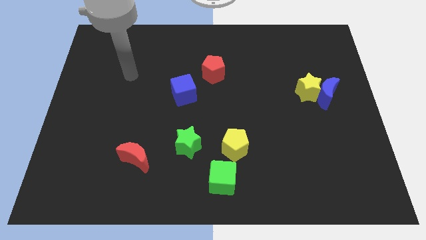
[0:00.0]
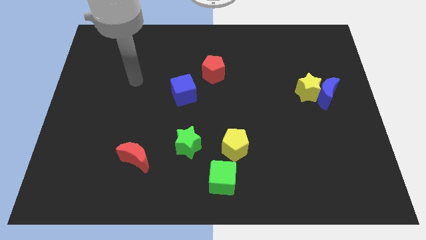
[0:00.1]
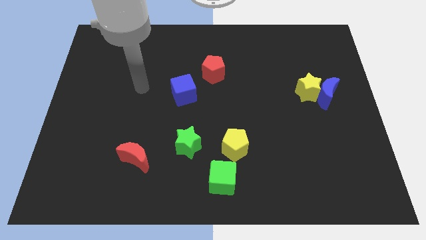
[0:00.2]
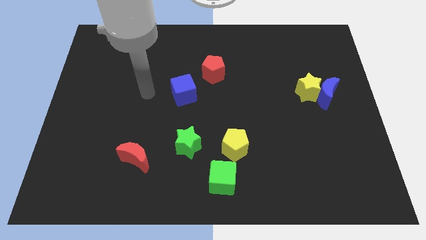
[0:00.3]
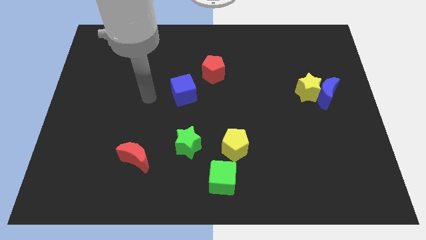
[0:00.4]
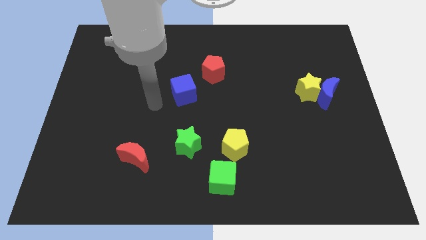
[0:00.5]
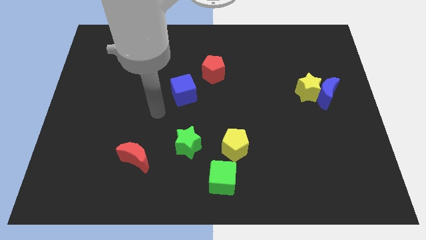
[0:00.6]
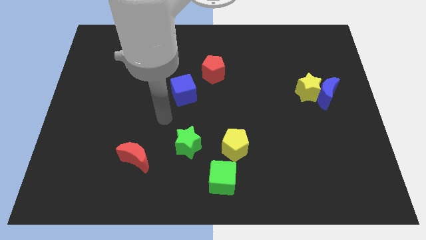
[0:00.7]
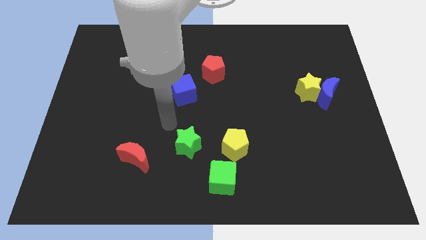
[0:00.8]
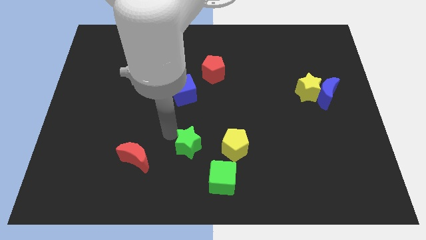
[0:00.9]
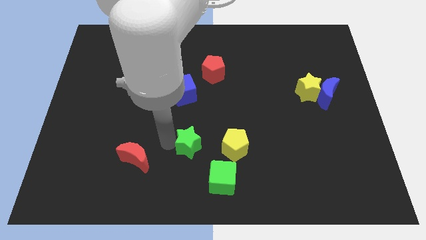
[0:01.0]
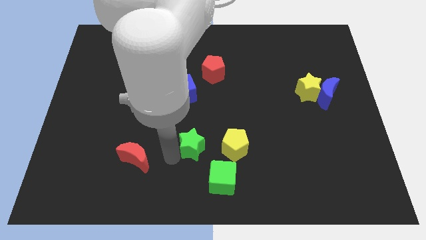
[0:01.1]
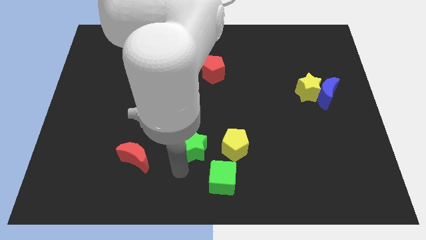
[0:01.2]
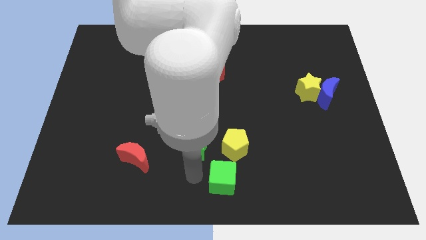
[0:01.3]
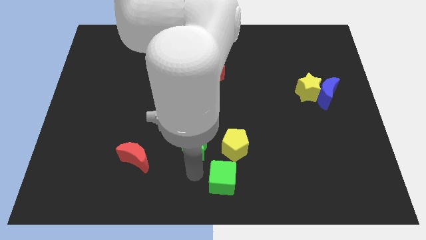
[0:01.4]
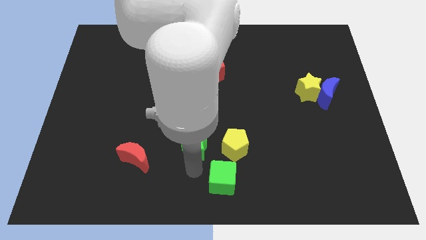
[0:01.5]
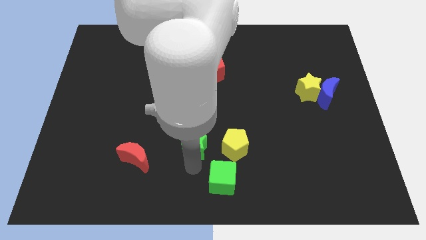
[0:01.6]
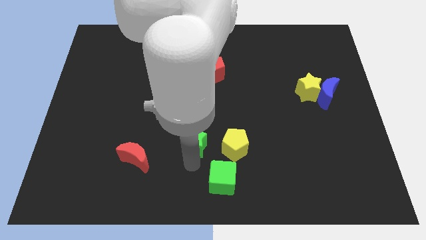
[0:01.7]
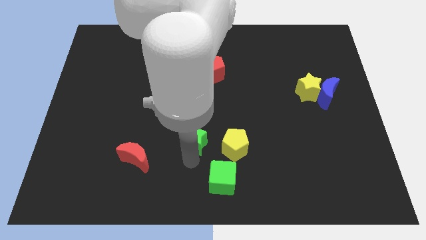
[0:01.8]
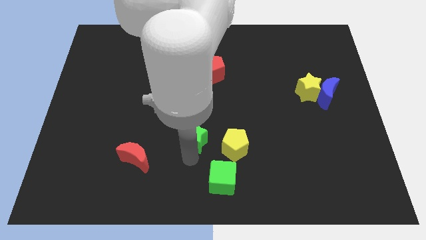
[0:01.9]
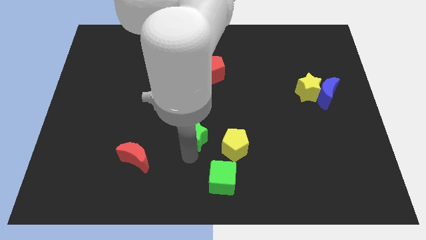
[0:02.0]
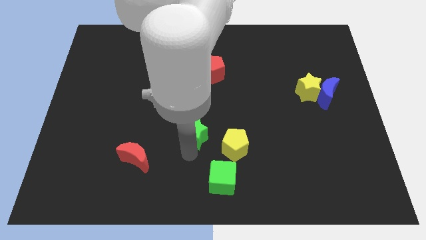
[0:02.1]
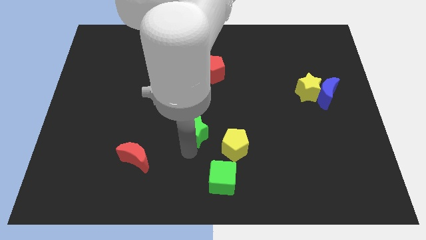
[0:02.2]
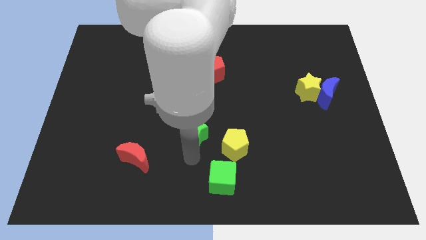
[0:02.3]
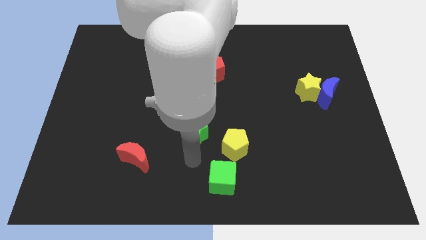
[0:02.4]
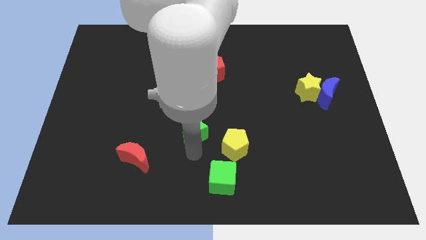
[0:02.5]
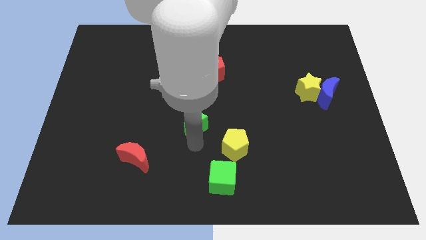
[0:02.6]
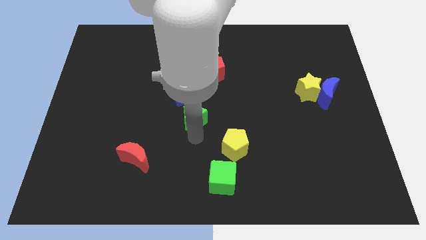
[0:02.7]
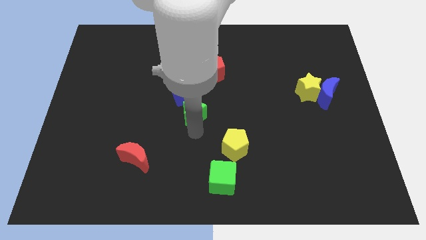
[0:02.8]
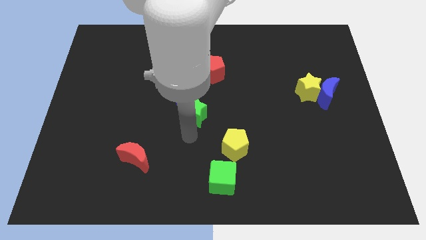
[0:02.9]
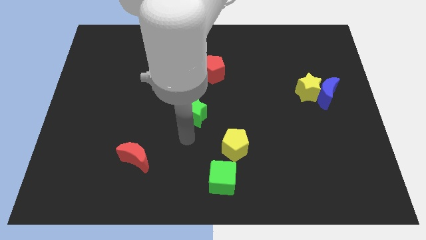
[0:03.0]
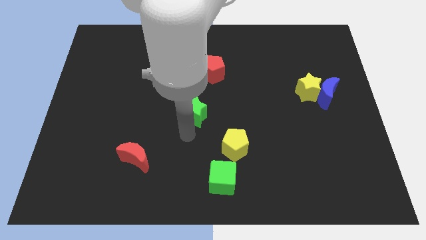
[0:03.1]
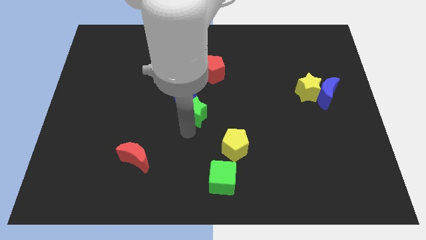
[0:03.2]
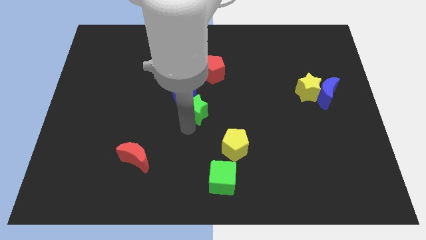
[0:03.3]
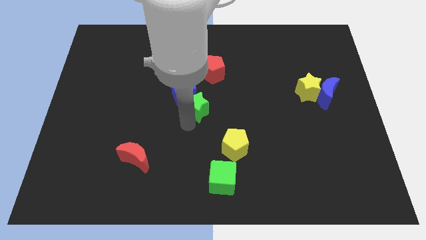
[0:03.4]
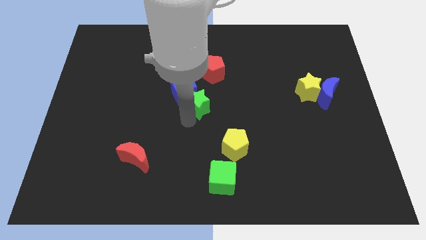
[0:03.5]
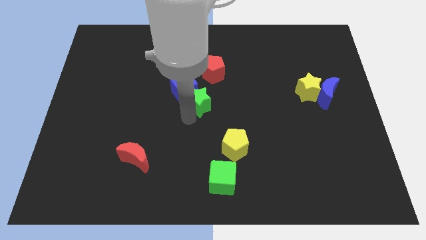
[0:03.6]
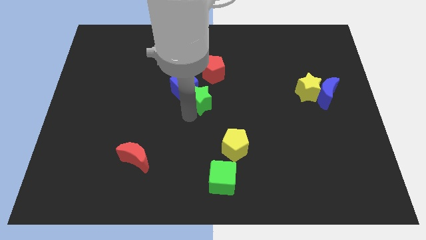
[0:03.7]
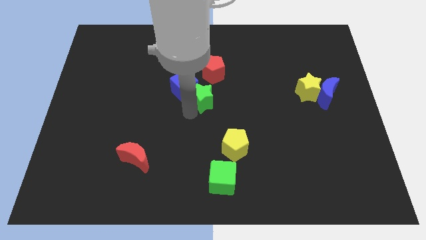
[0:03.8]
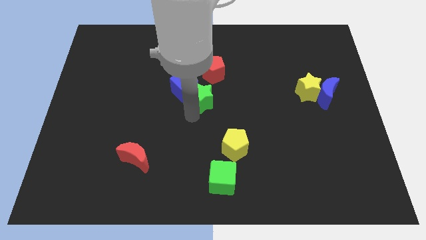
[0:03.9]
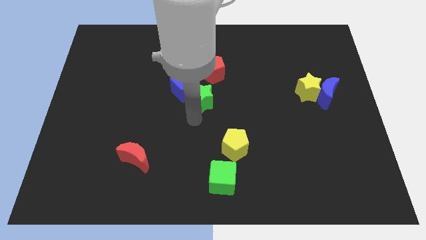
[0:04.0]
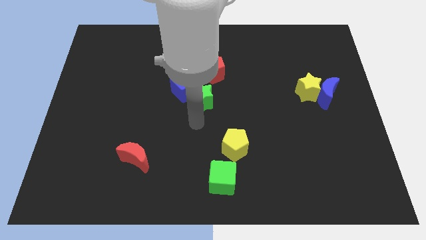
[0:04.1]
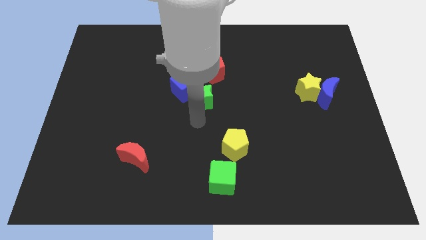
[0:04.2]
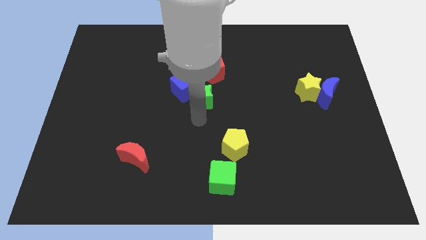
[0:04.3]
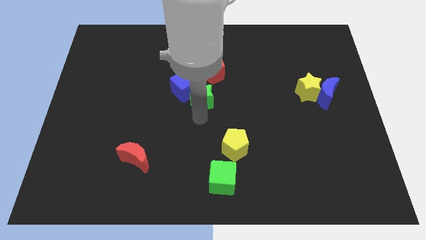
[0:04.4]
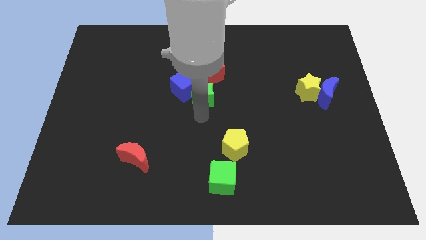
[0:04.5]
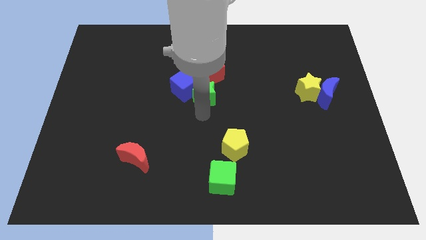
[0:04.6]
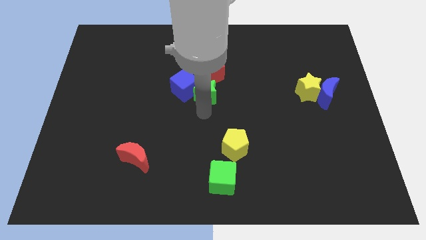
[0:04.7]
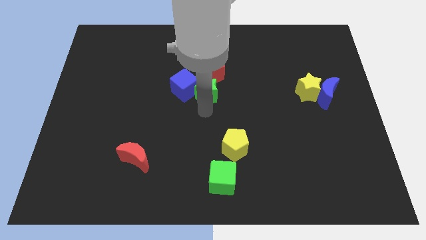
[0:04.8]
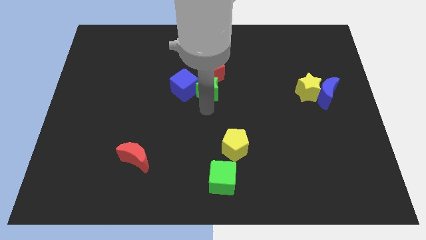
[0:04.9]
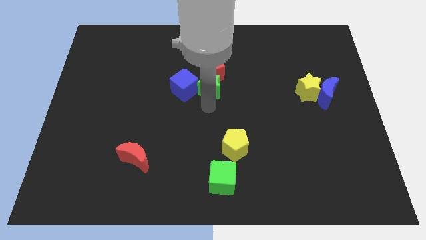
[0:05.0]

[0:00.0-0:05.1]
move the green star next to the red pentagon

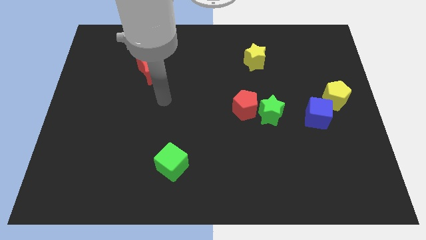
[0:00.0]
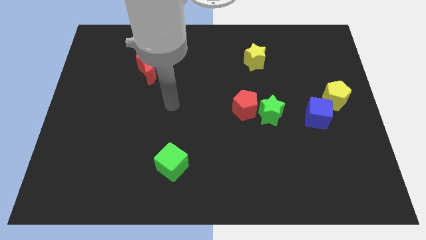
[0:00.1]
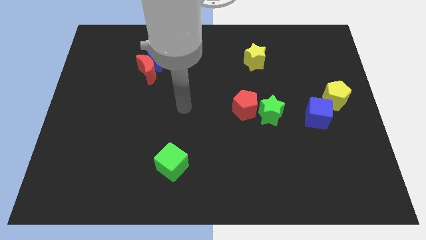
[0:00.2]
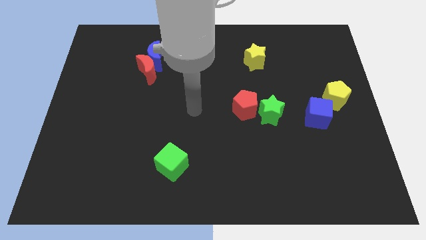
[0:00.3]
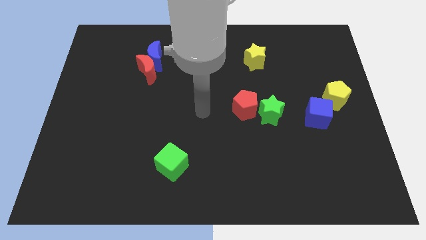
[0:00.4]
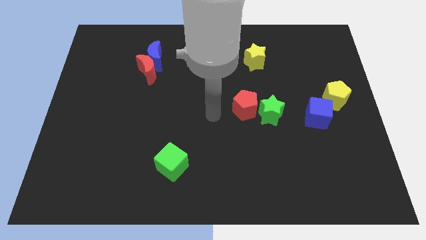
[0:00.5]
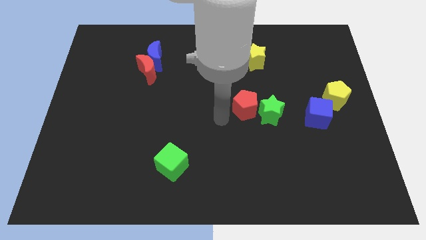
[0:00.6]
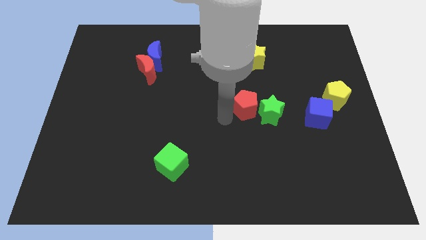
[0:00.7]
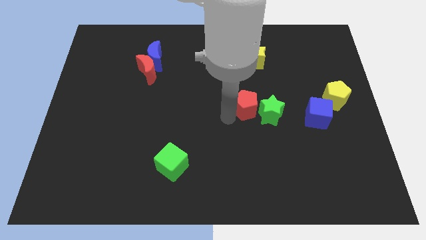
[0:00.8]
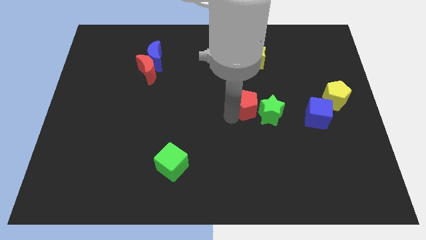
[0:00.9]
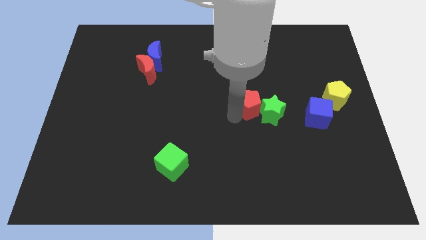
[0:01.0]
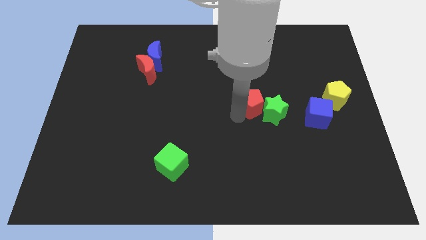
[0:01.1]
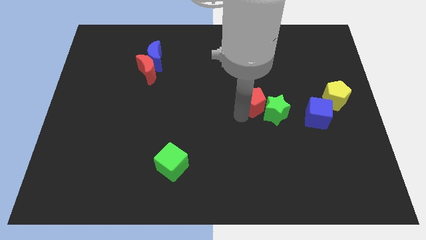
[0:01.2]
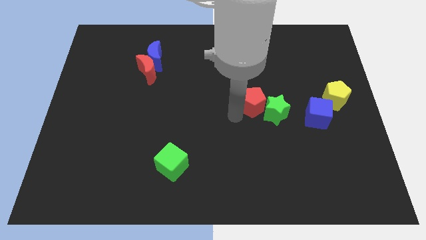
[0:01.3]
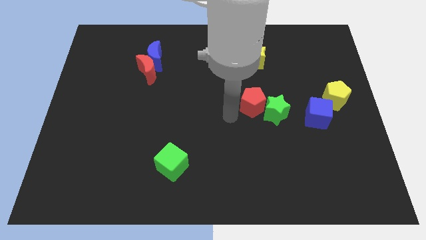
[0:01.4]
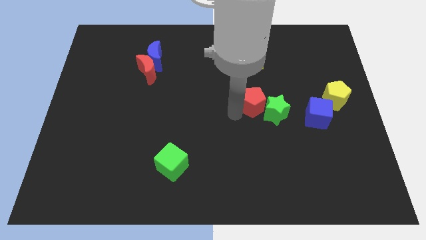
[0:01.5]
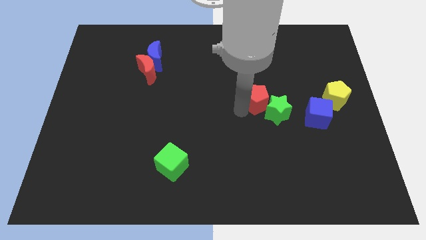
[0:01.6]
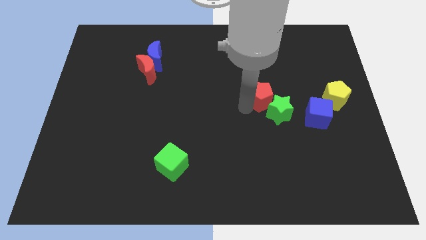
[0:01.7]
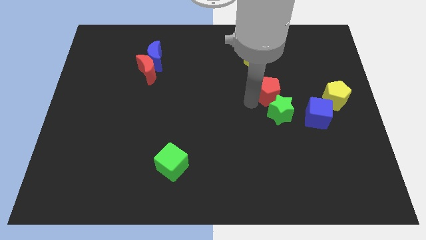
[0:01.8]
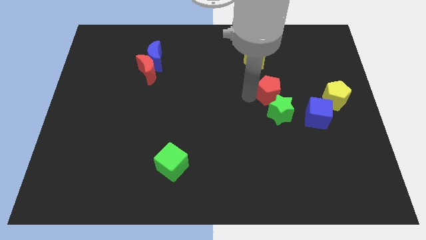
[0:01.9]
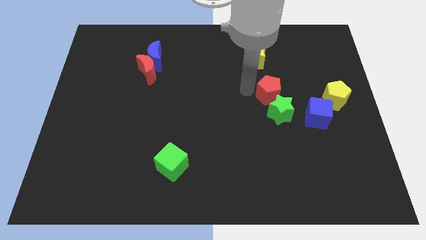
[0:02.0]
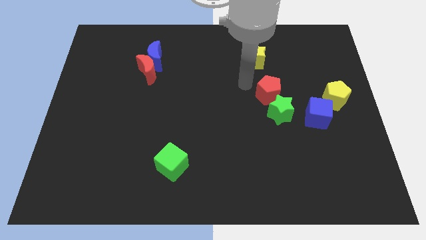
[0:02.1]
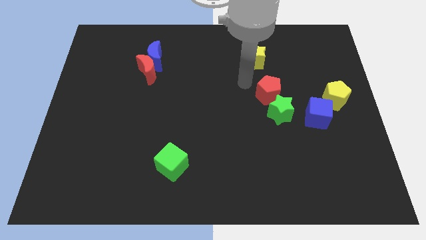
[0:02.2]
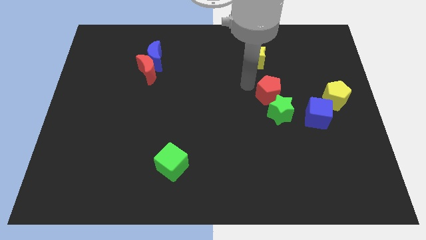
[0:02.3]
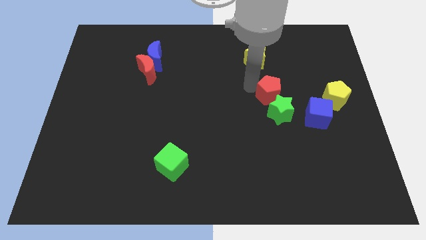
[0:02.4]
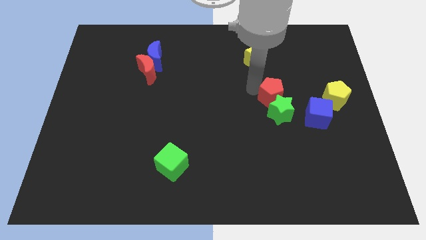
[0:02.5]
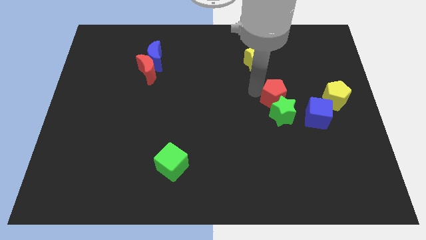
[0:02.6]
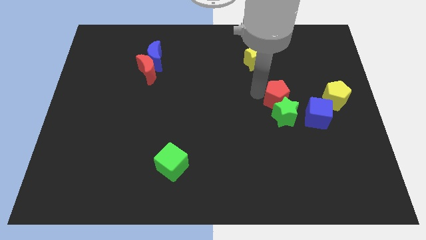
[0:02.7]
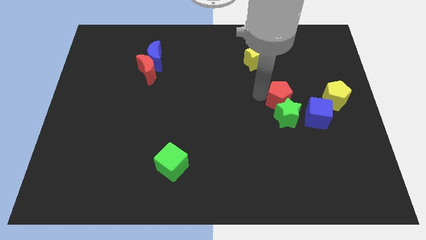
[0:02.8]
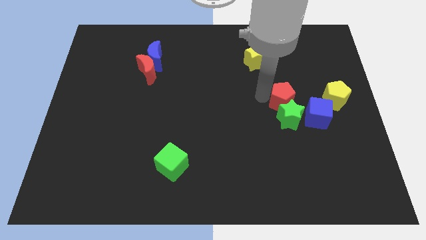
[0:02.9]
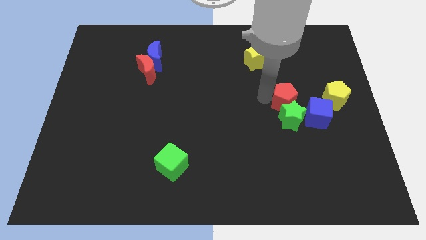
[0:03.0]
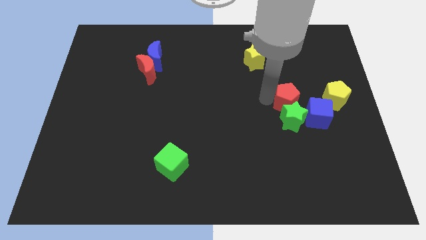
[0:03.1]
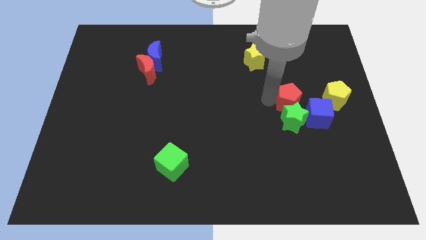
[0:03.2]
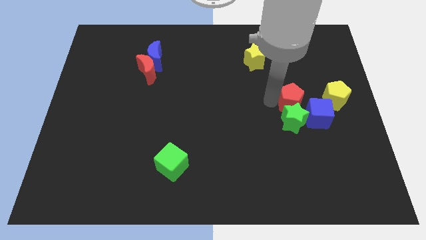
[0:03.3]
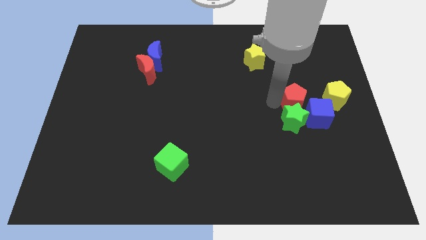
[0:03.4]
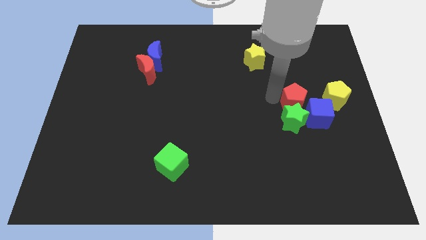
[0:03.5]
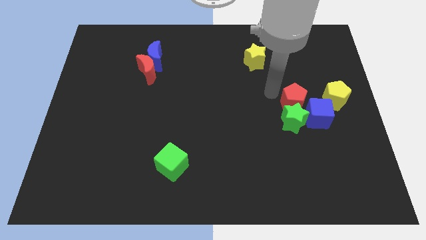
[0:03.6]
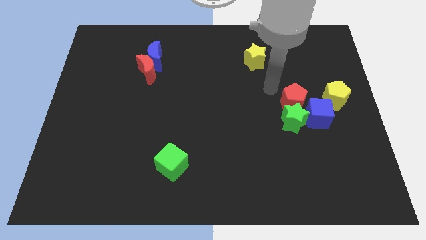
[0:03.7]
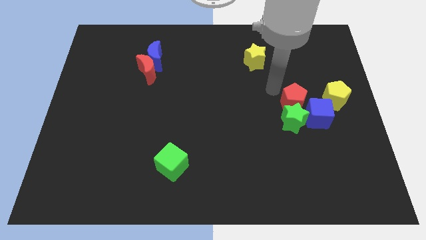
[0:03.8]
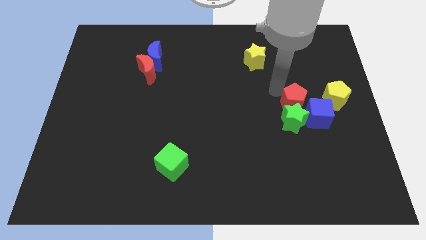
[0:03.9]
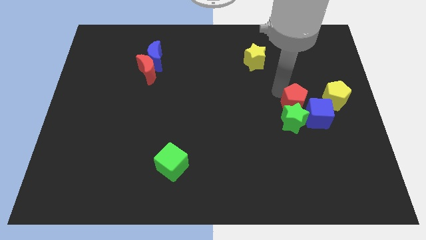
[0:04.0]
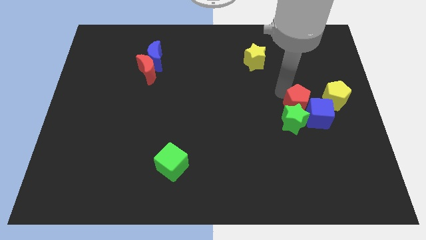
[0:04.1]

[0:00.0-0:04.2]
put the red pentagon close to the blue cube
